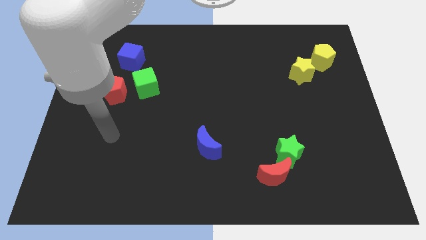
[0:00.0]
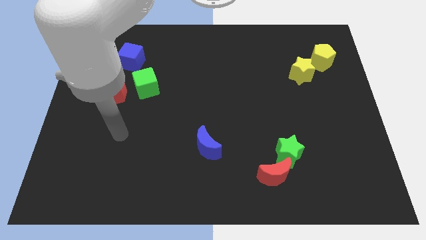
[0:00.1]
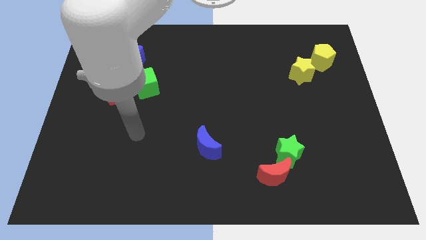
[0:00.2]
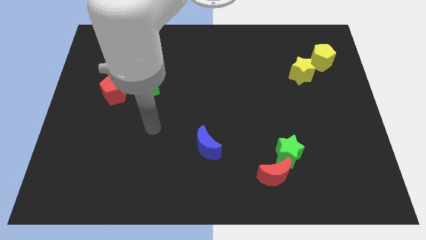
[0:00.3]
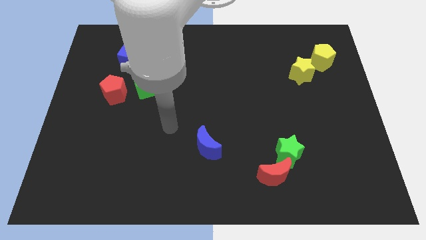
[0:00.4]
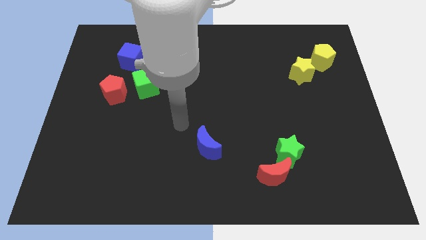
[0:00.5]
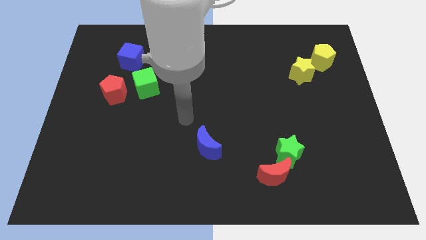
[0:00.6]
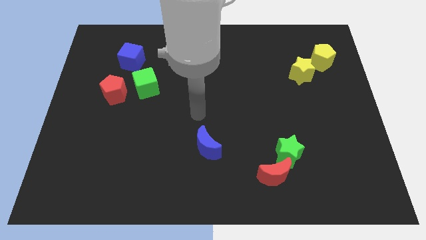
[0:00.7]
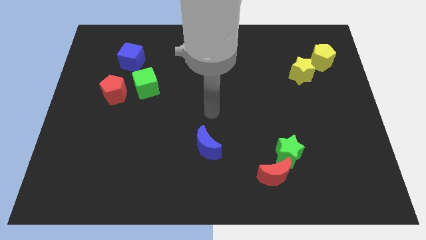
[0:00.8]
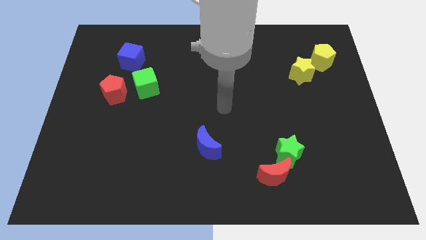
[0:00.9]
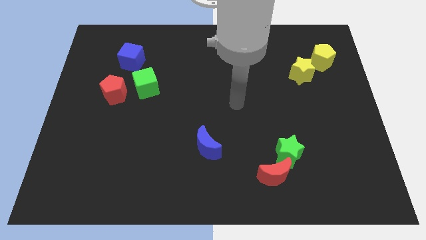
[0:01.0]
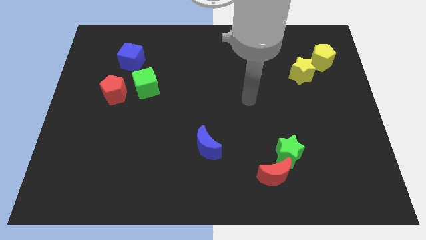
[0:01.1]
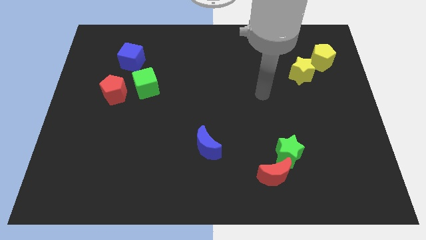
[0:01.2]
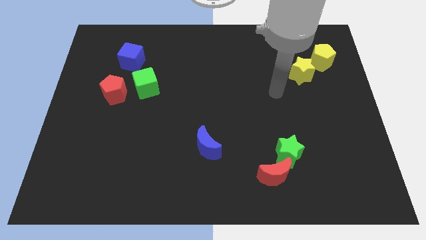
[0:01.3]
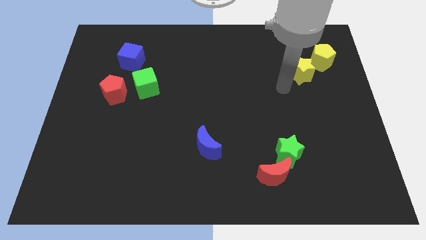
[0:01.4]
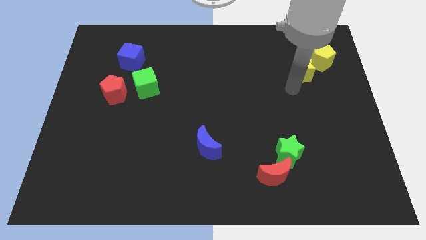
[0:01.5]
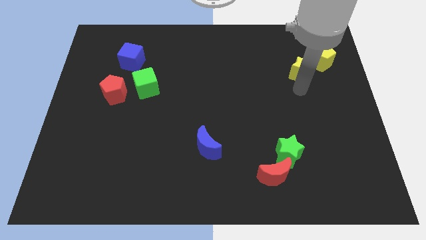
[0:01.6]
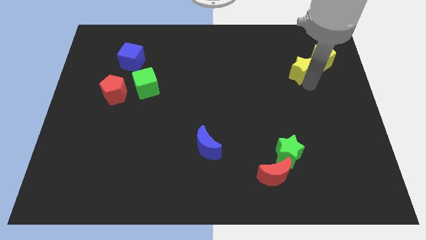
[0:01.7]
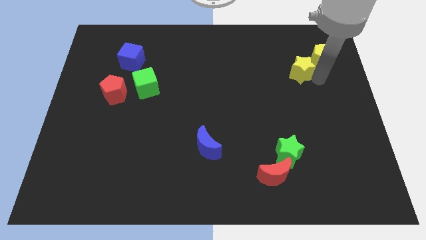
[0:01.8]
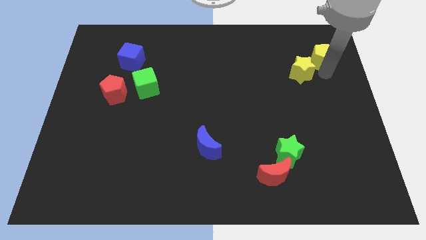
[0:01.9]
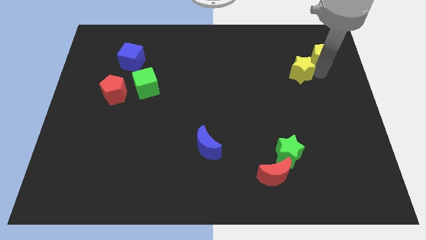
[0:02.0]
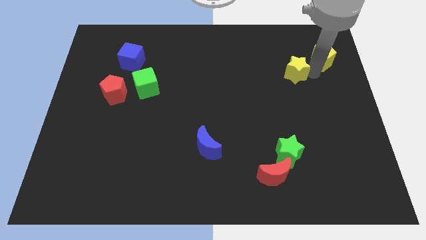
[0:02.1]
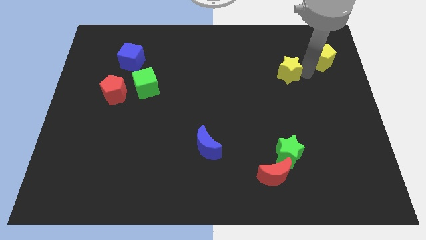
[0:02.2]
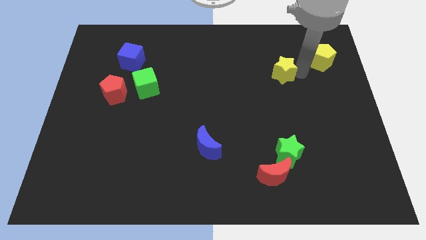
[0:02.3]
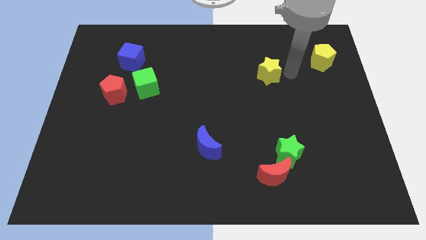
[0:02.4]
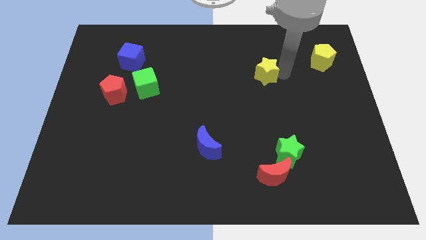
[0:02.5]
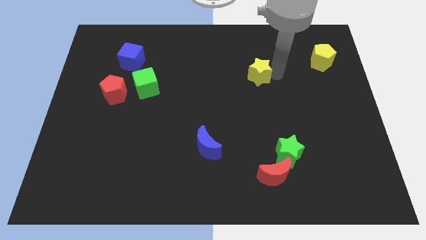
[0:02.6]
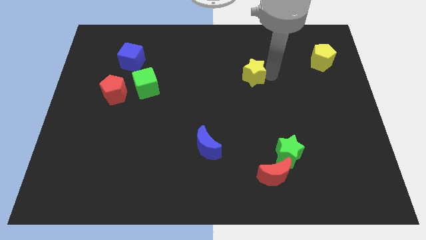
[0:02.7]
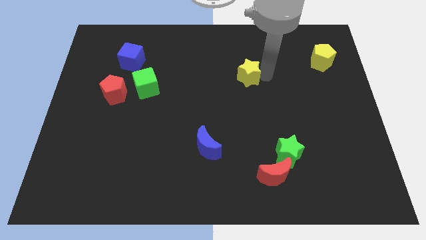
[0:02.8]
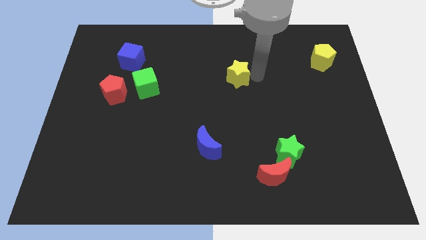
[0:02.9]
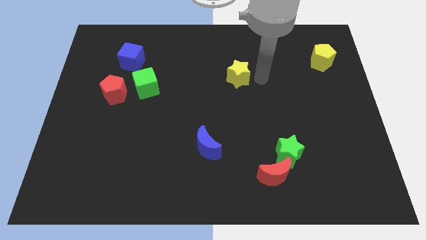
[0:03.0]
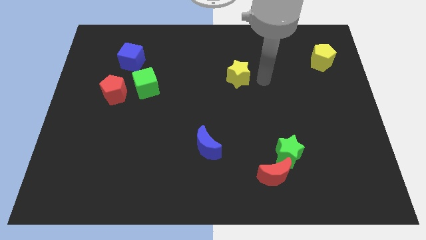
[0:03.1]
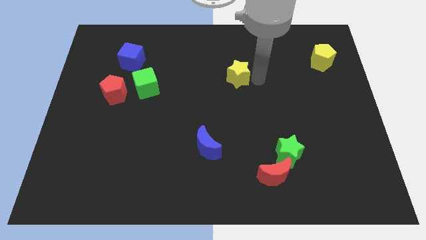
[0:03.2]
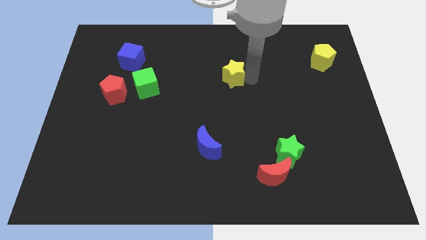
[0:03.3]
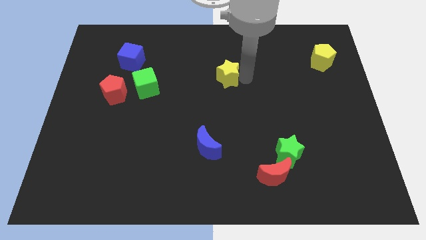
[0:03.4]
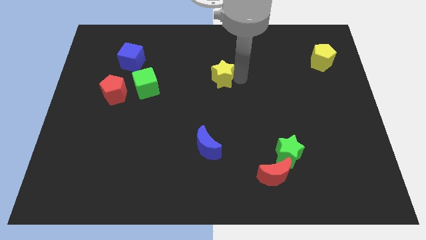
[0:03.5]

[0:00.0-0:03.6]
push the yellow star to the left

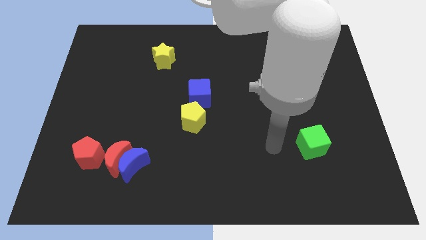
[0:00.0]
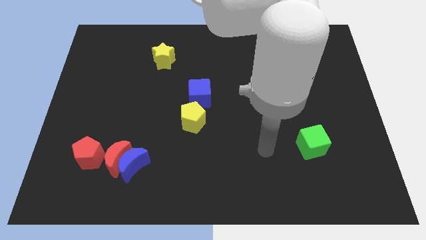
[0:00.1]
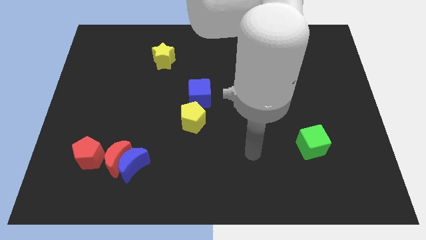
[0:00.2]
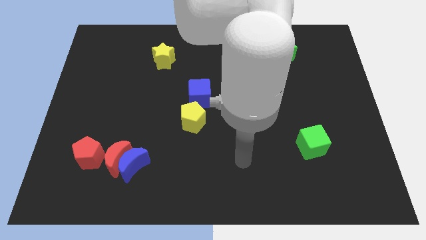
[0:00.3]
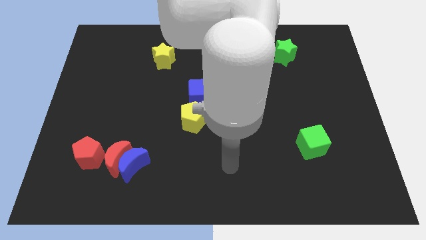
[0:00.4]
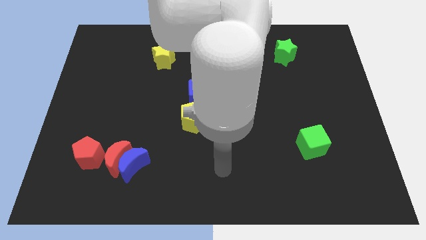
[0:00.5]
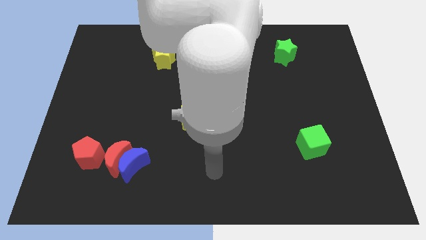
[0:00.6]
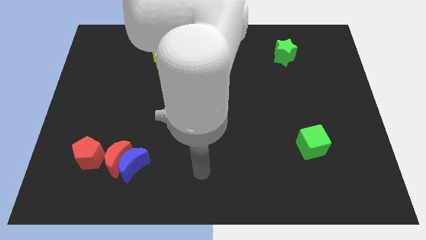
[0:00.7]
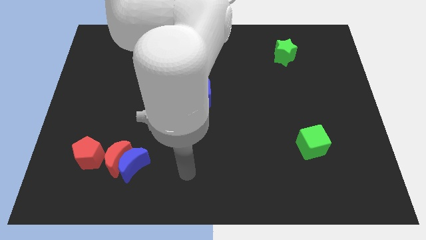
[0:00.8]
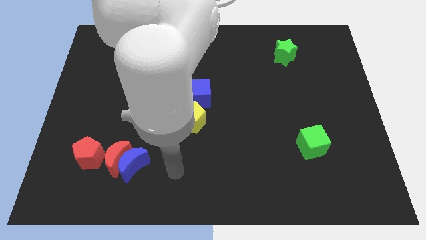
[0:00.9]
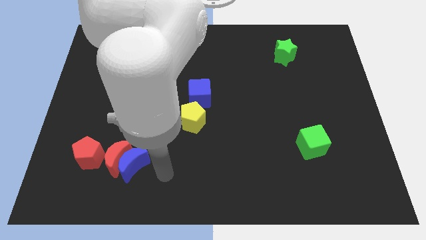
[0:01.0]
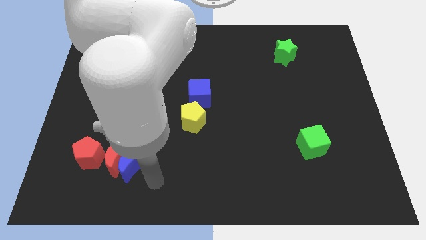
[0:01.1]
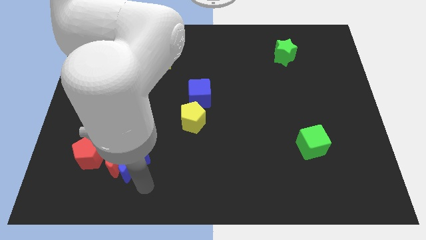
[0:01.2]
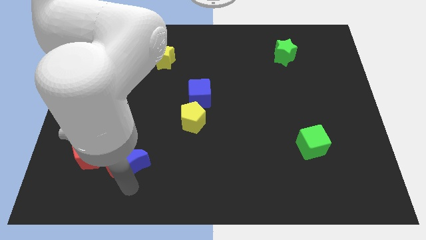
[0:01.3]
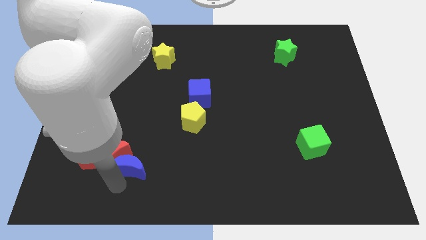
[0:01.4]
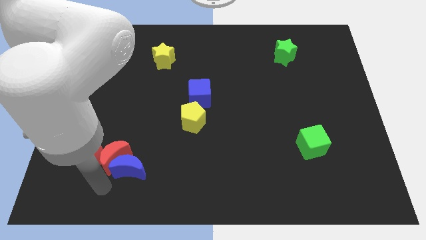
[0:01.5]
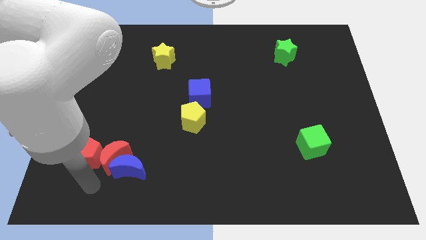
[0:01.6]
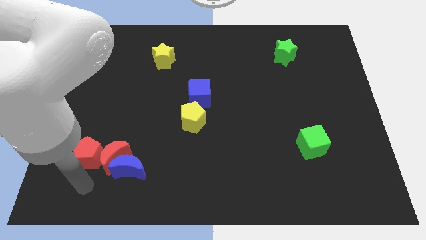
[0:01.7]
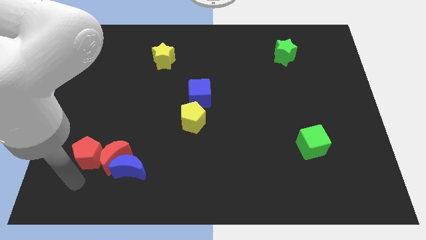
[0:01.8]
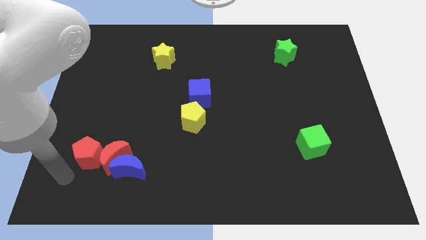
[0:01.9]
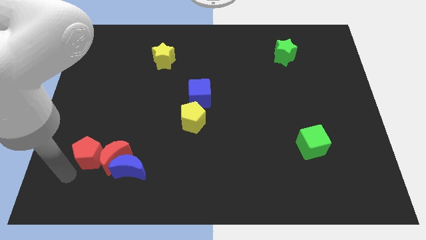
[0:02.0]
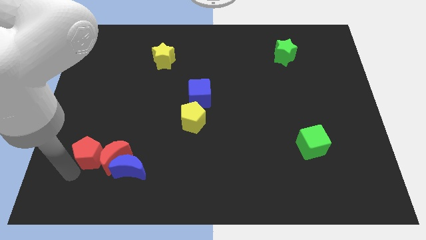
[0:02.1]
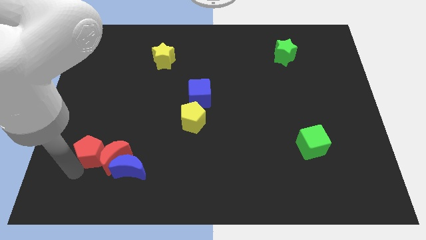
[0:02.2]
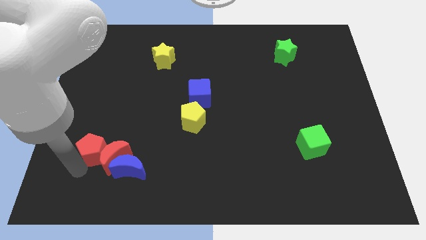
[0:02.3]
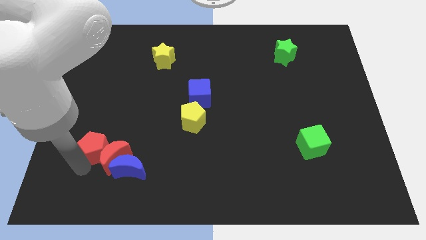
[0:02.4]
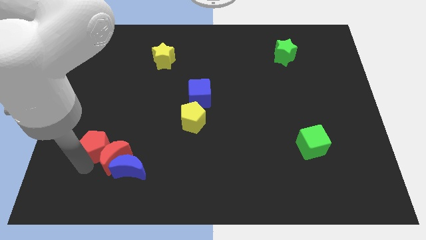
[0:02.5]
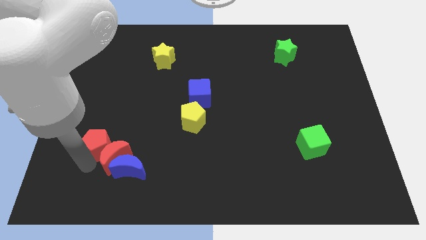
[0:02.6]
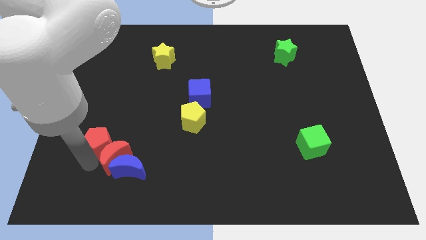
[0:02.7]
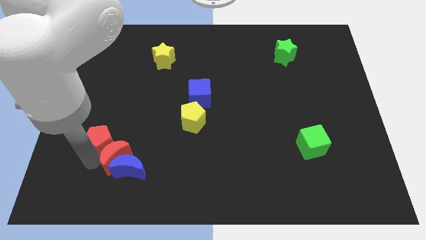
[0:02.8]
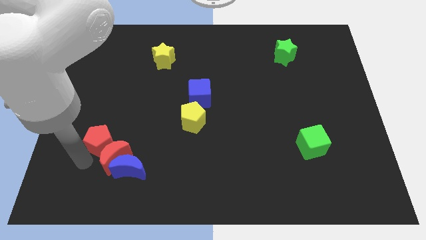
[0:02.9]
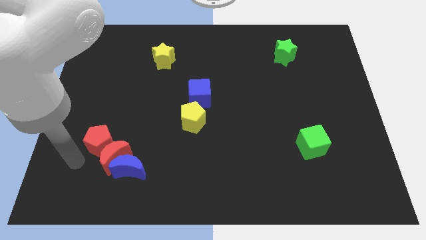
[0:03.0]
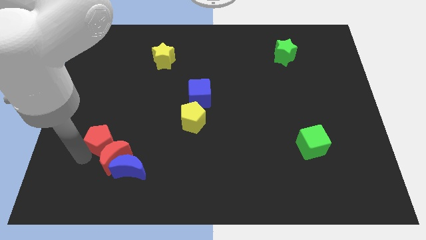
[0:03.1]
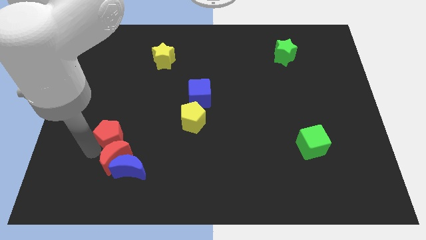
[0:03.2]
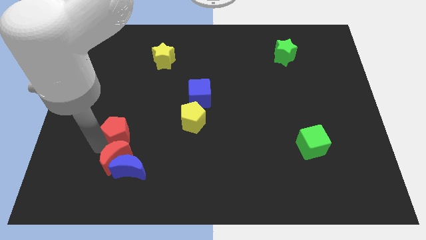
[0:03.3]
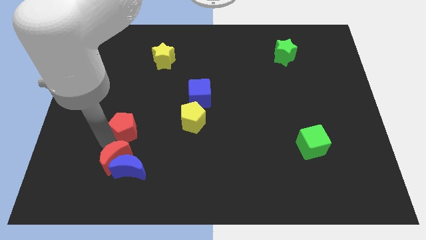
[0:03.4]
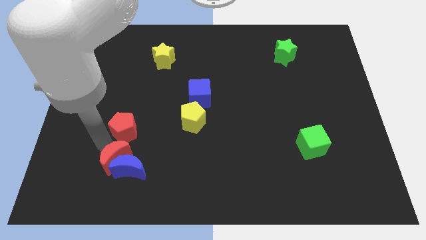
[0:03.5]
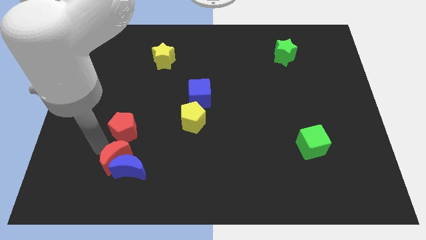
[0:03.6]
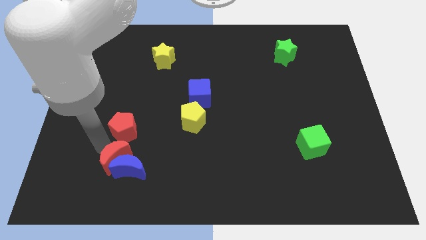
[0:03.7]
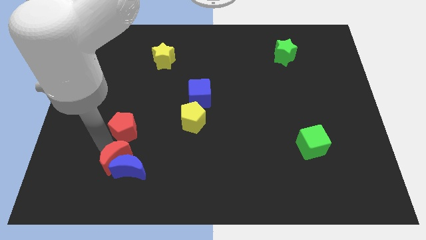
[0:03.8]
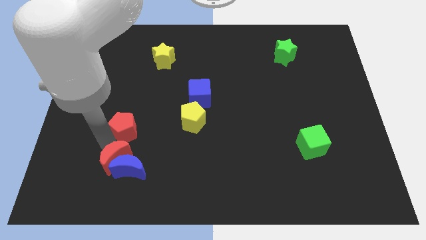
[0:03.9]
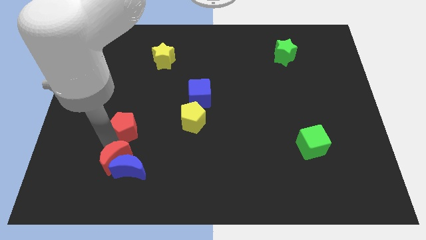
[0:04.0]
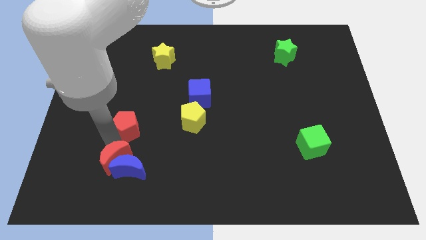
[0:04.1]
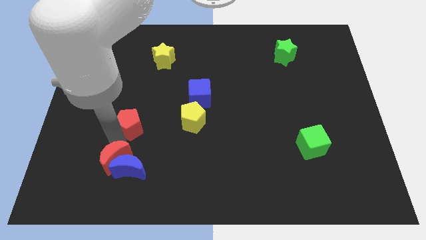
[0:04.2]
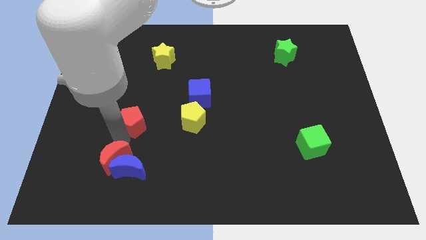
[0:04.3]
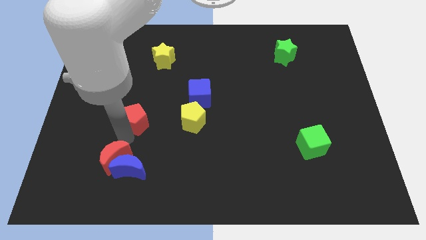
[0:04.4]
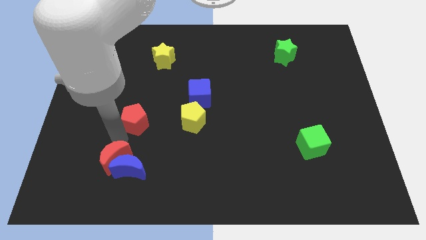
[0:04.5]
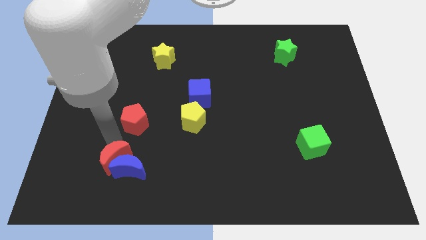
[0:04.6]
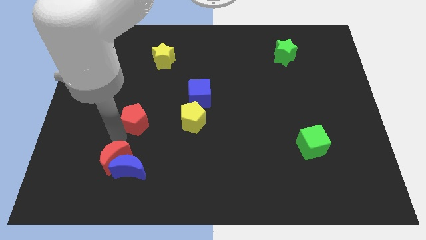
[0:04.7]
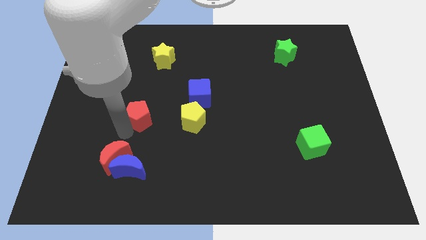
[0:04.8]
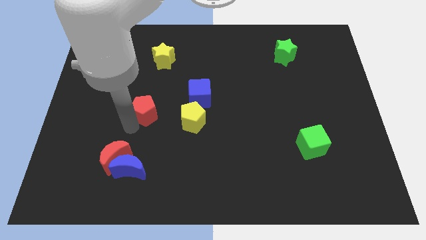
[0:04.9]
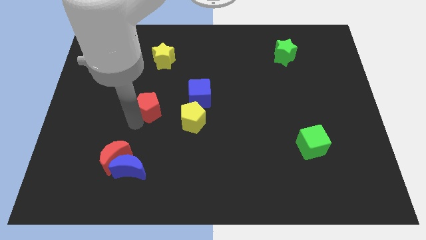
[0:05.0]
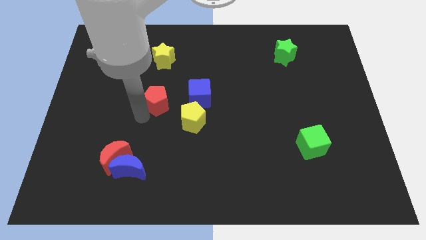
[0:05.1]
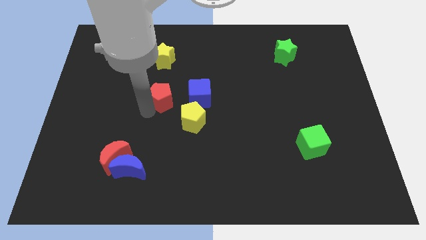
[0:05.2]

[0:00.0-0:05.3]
slide the red pentagon upwards and right
